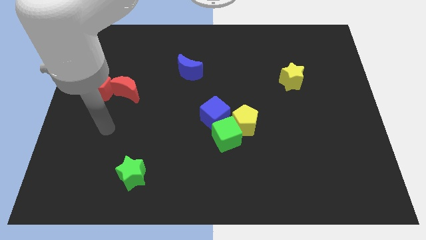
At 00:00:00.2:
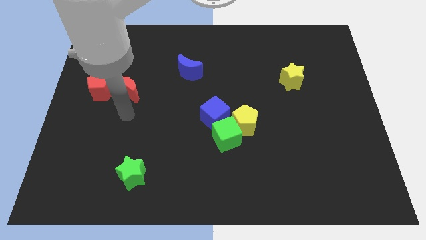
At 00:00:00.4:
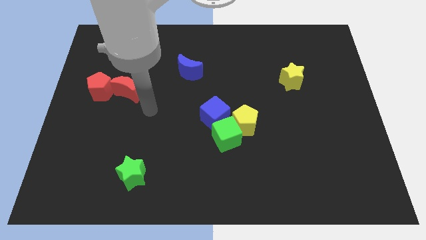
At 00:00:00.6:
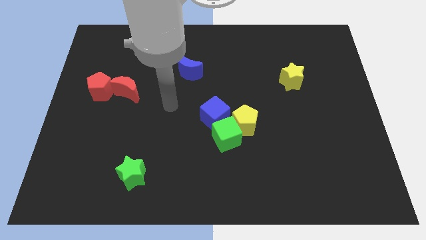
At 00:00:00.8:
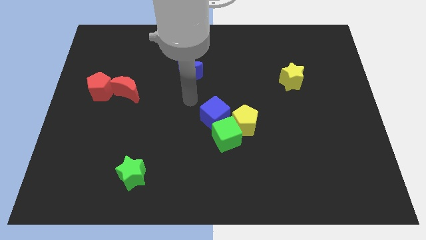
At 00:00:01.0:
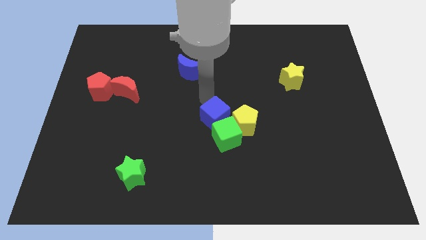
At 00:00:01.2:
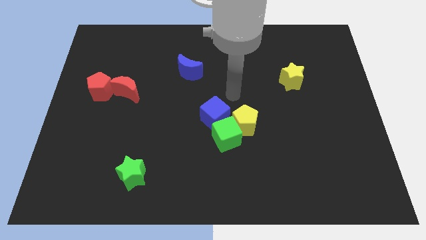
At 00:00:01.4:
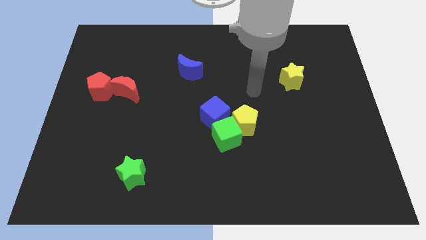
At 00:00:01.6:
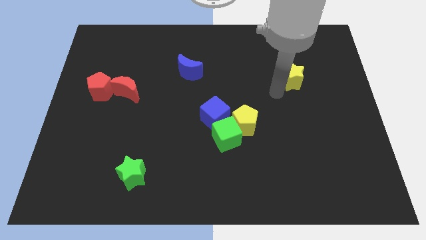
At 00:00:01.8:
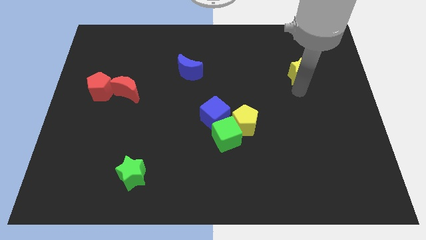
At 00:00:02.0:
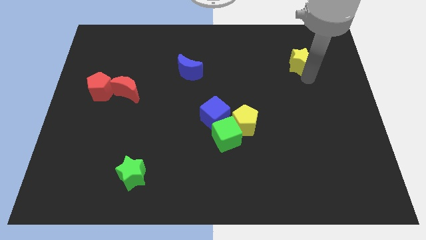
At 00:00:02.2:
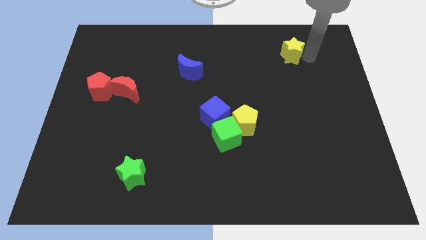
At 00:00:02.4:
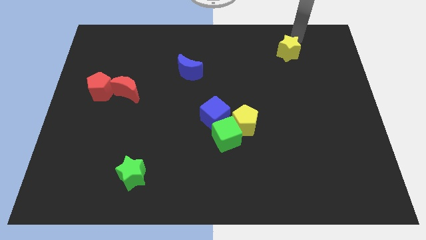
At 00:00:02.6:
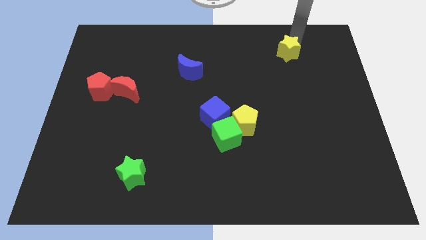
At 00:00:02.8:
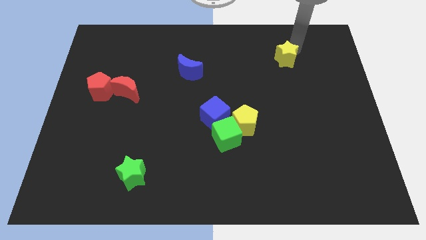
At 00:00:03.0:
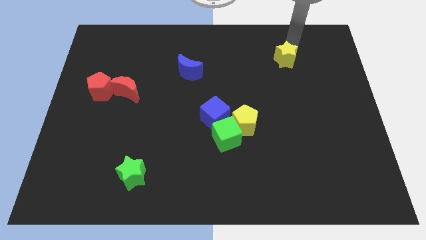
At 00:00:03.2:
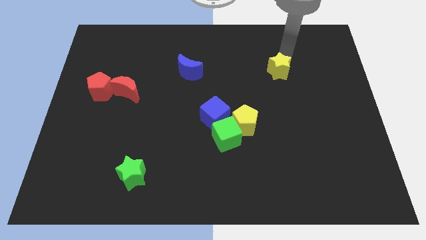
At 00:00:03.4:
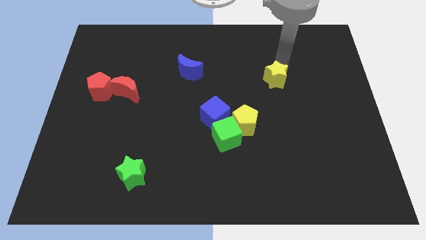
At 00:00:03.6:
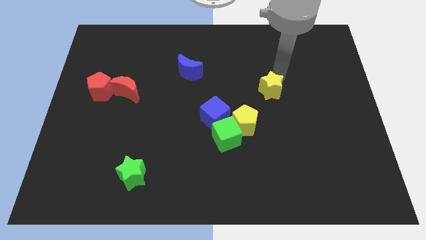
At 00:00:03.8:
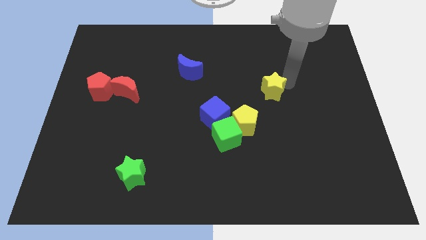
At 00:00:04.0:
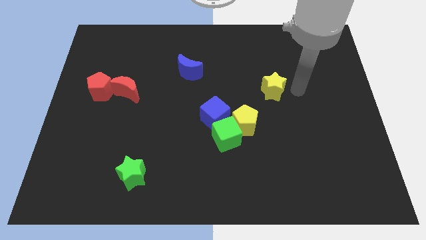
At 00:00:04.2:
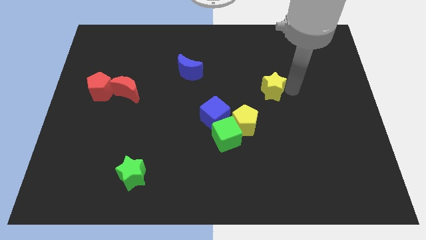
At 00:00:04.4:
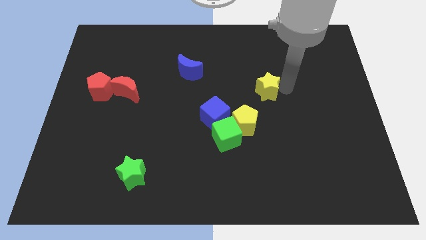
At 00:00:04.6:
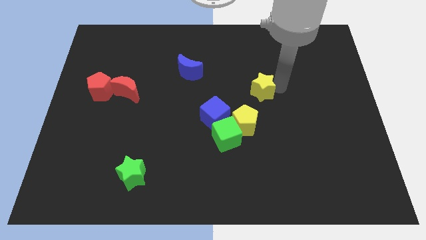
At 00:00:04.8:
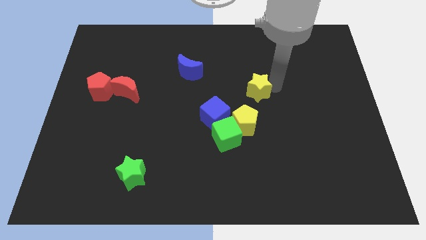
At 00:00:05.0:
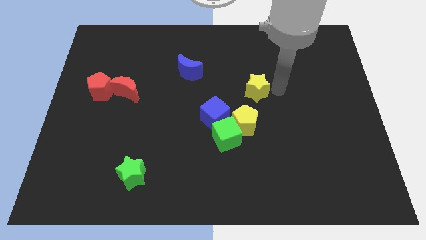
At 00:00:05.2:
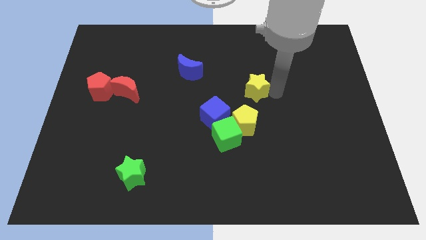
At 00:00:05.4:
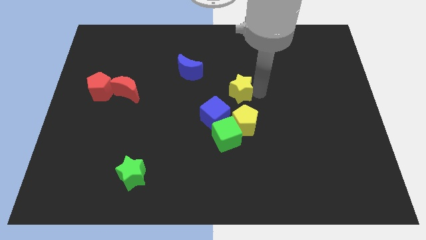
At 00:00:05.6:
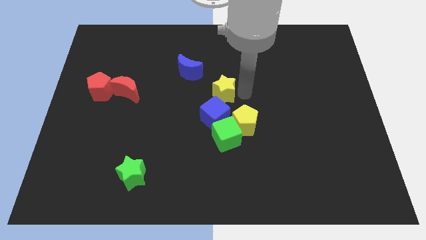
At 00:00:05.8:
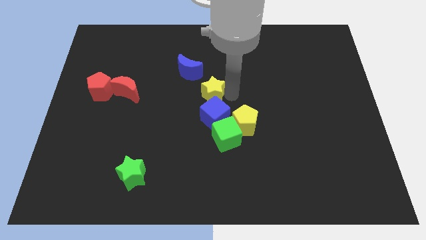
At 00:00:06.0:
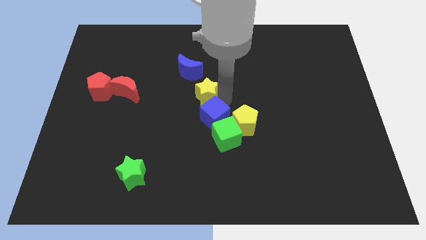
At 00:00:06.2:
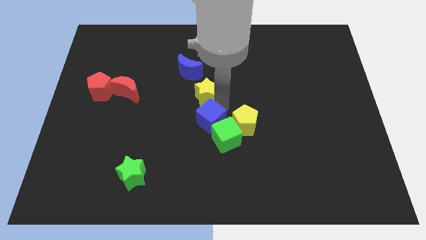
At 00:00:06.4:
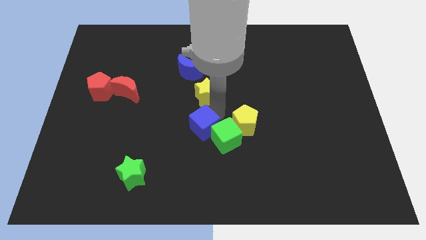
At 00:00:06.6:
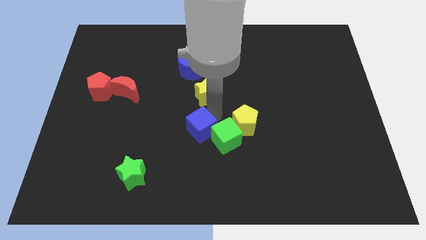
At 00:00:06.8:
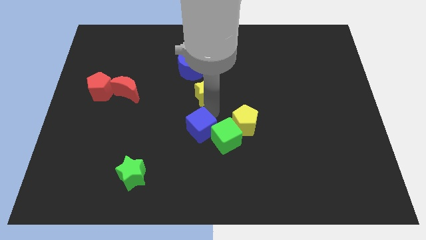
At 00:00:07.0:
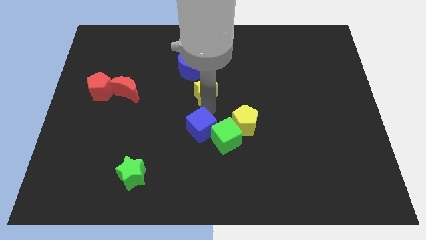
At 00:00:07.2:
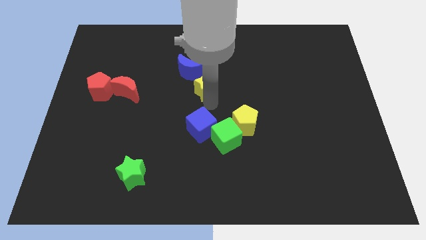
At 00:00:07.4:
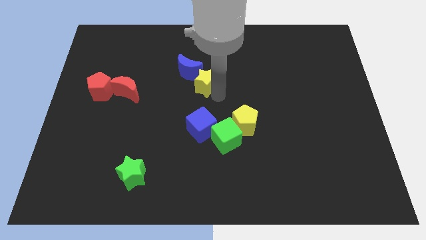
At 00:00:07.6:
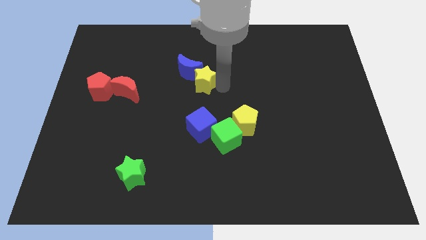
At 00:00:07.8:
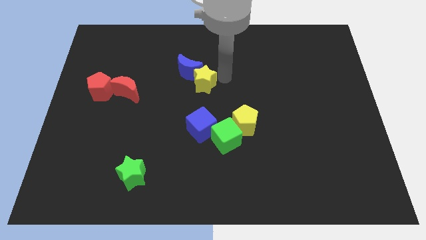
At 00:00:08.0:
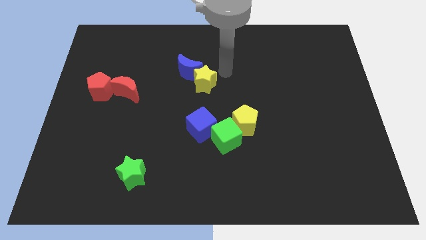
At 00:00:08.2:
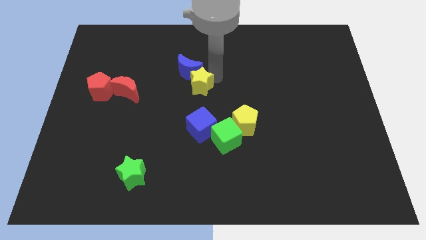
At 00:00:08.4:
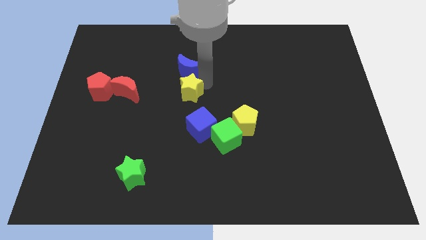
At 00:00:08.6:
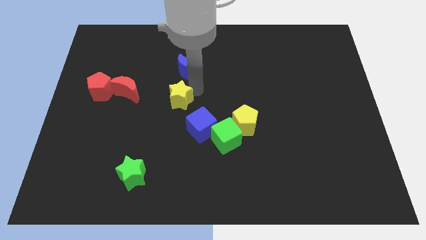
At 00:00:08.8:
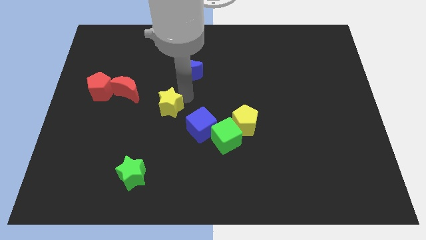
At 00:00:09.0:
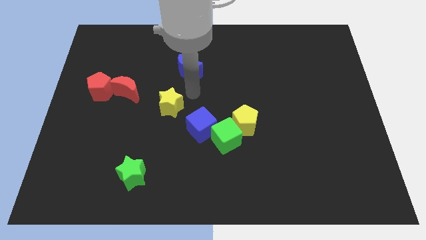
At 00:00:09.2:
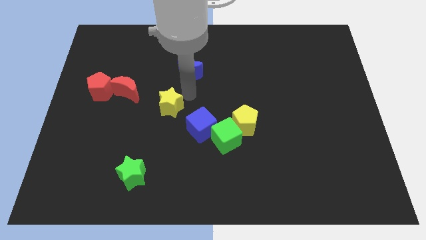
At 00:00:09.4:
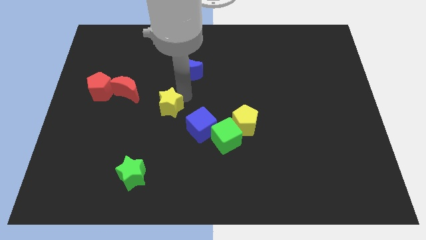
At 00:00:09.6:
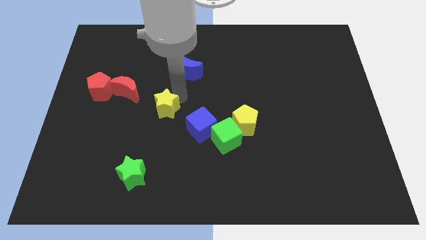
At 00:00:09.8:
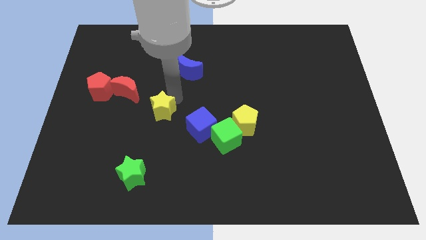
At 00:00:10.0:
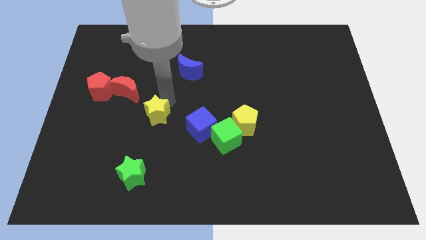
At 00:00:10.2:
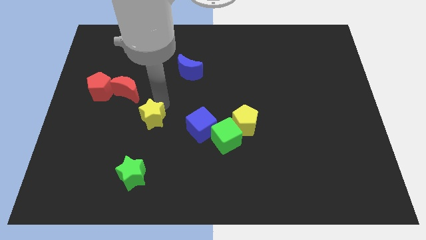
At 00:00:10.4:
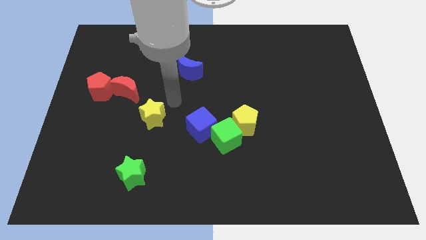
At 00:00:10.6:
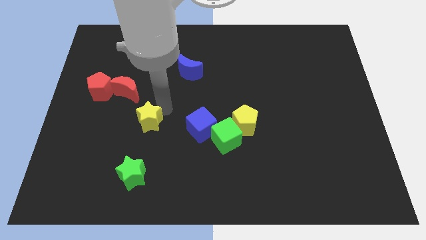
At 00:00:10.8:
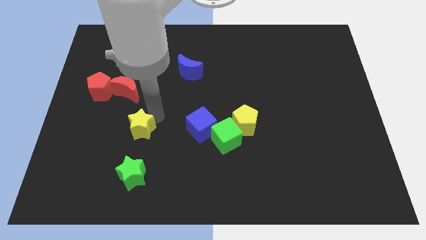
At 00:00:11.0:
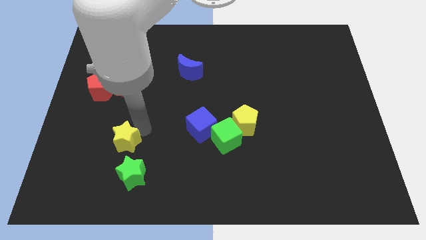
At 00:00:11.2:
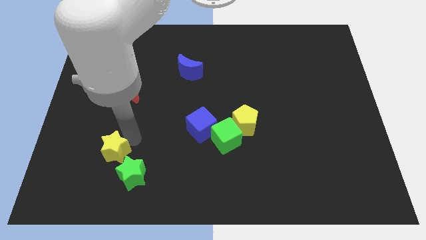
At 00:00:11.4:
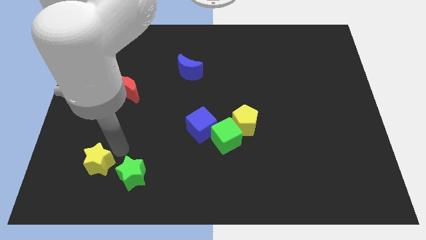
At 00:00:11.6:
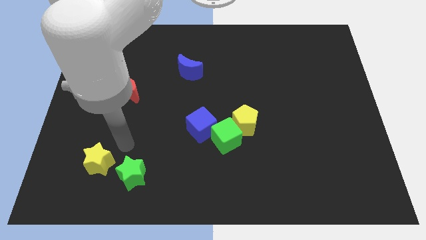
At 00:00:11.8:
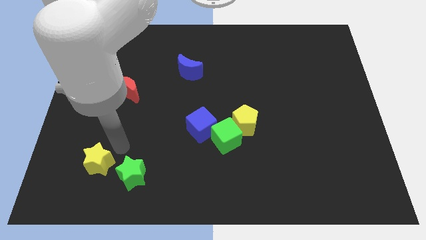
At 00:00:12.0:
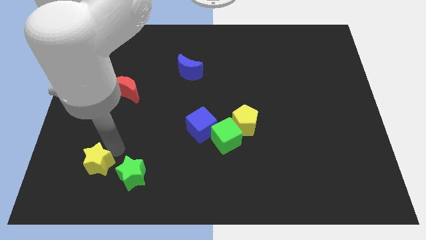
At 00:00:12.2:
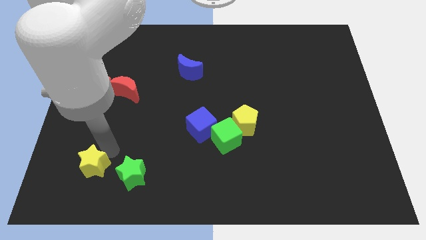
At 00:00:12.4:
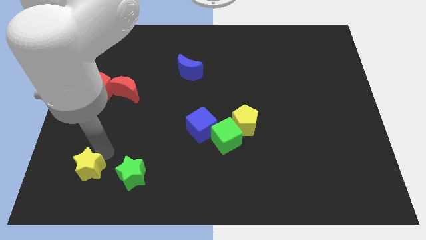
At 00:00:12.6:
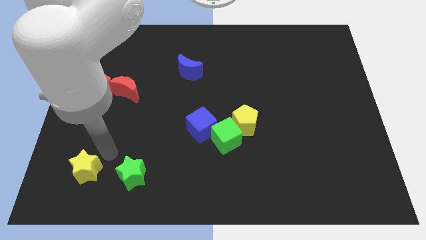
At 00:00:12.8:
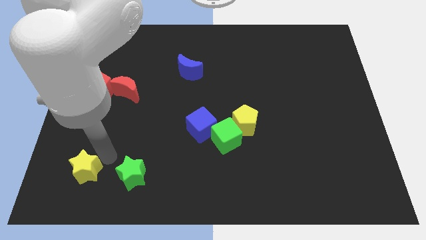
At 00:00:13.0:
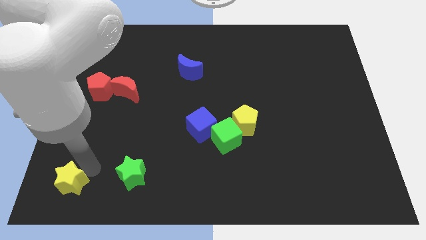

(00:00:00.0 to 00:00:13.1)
push the yellow star to the bottom left corner

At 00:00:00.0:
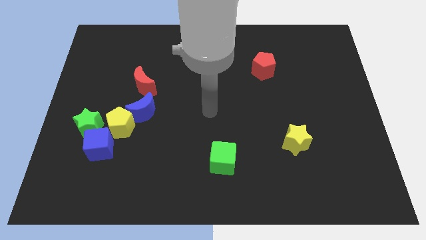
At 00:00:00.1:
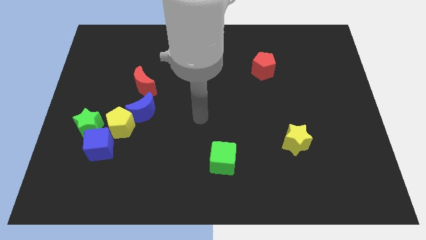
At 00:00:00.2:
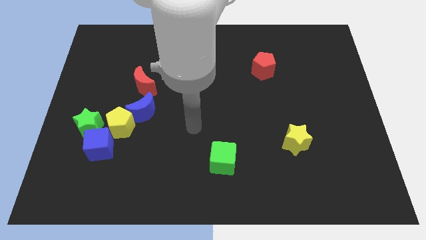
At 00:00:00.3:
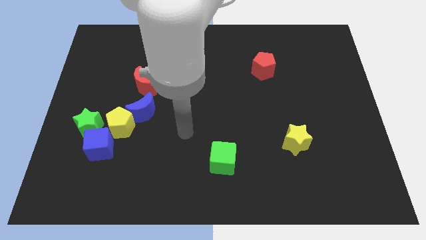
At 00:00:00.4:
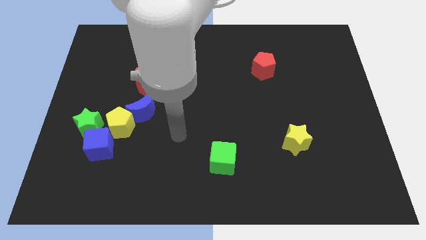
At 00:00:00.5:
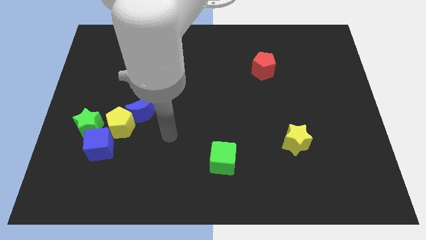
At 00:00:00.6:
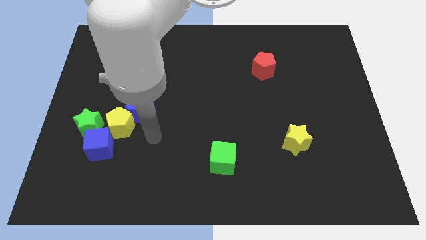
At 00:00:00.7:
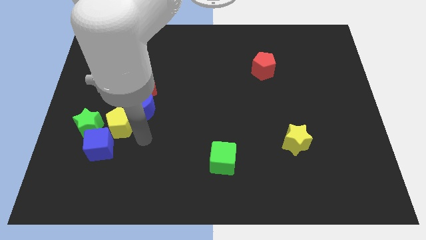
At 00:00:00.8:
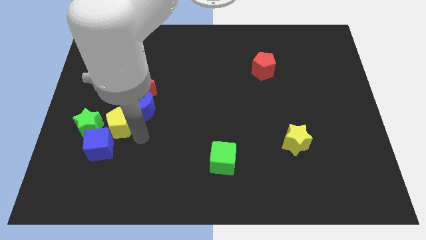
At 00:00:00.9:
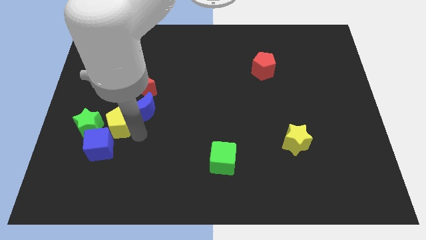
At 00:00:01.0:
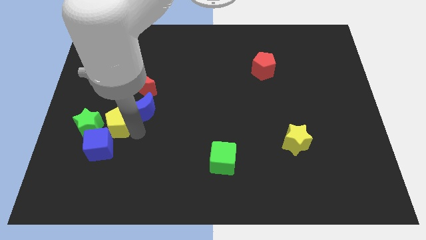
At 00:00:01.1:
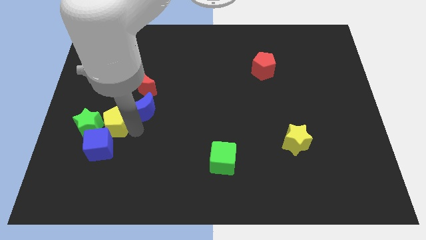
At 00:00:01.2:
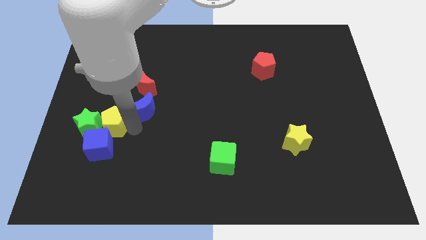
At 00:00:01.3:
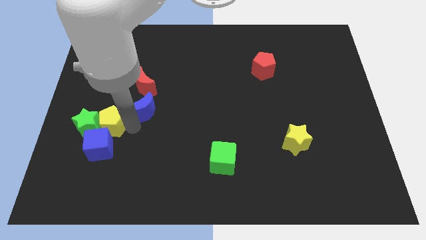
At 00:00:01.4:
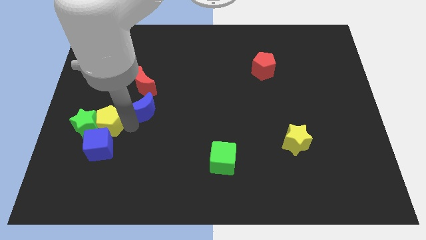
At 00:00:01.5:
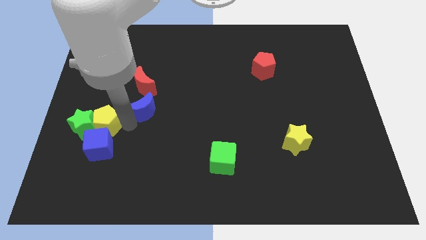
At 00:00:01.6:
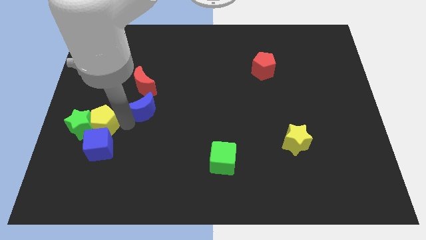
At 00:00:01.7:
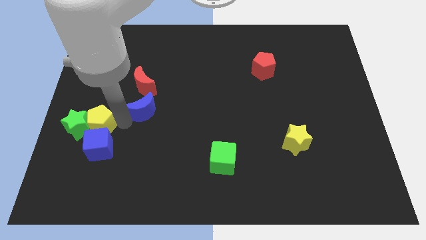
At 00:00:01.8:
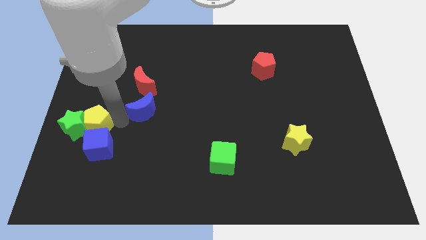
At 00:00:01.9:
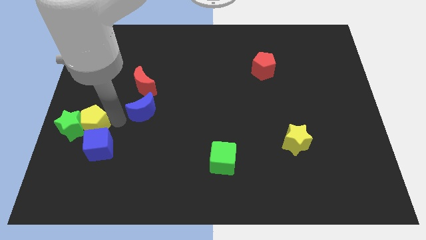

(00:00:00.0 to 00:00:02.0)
push the yellow pentagon to the center left
